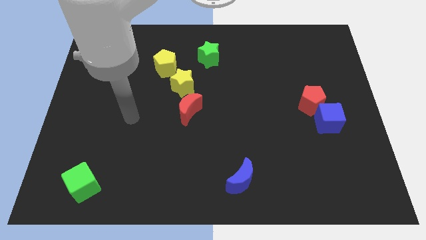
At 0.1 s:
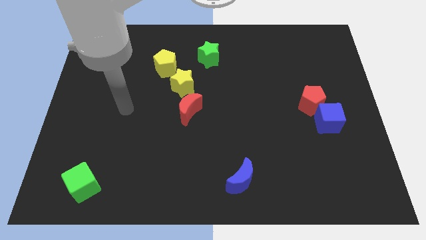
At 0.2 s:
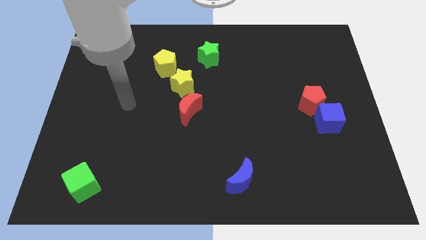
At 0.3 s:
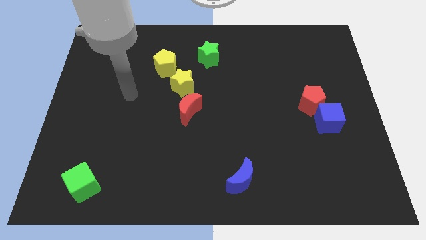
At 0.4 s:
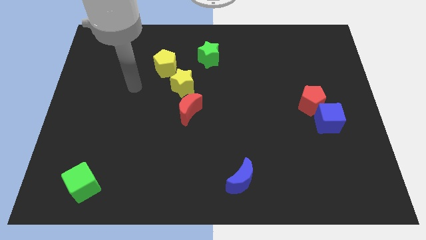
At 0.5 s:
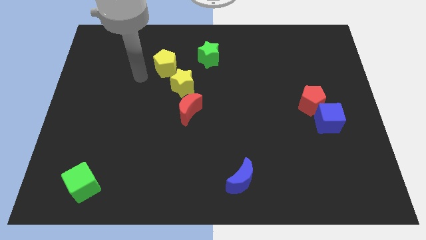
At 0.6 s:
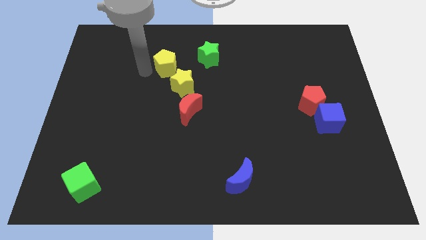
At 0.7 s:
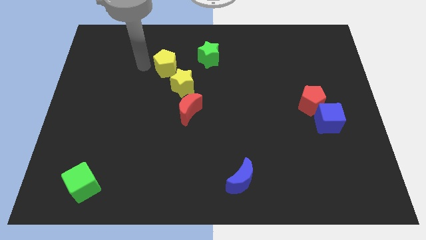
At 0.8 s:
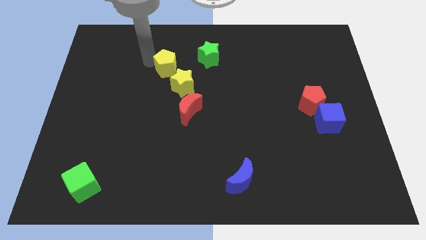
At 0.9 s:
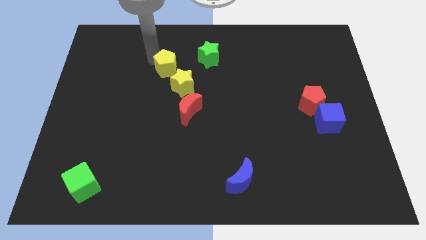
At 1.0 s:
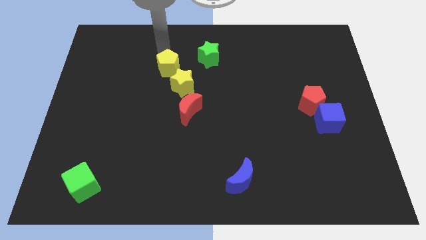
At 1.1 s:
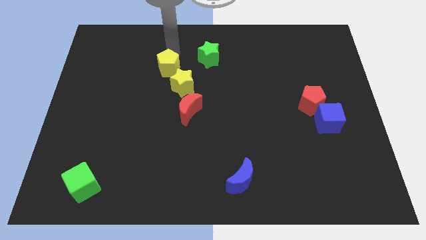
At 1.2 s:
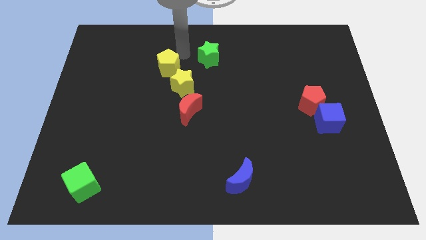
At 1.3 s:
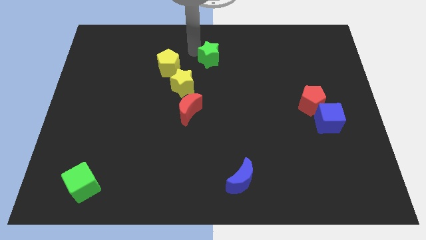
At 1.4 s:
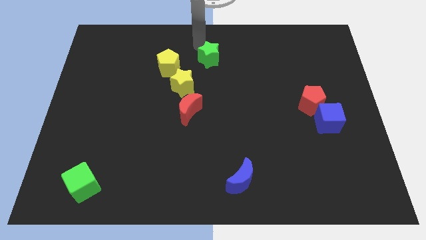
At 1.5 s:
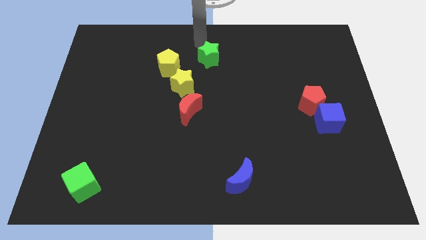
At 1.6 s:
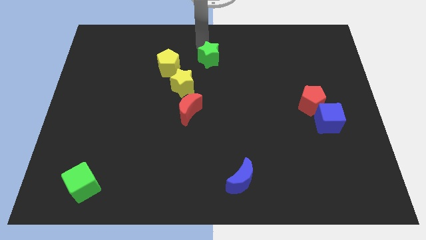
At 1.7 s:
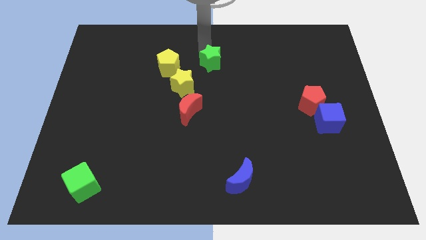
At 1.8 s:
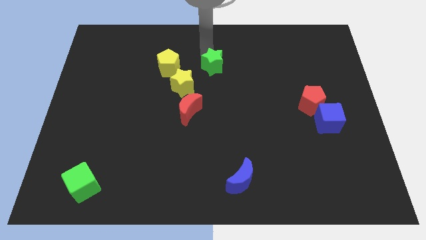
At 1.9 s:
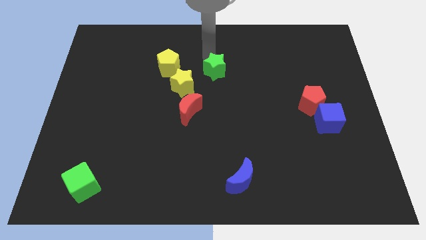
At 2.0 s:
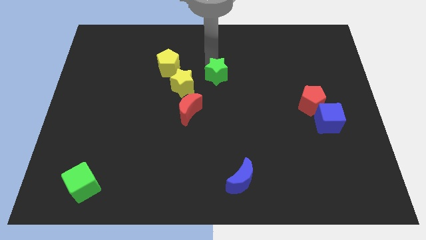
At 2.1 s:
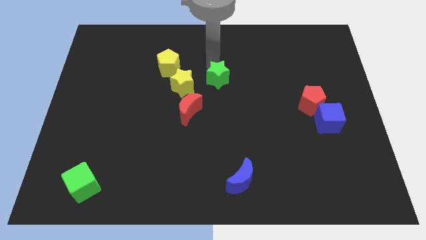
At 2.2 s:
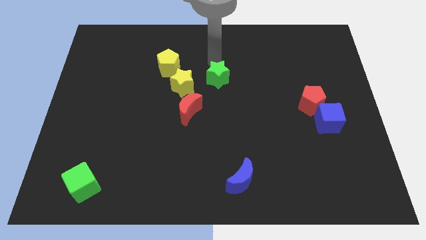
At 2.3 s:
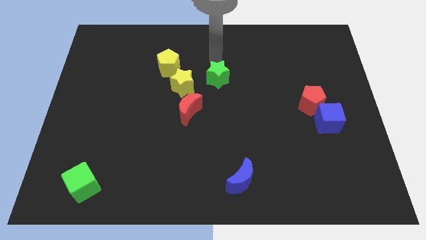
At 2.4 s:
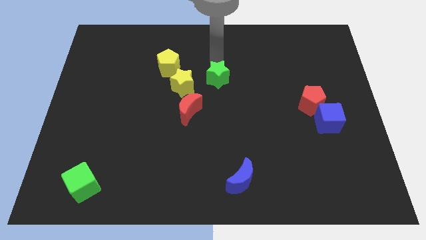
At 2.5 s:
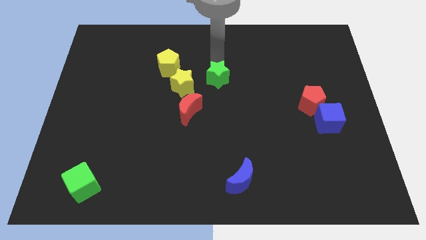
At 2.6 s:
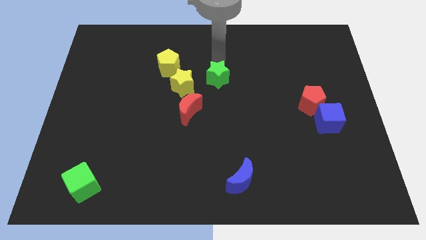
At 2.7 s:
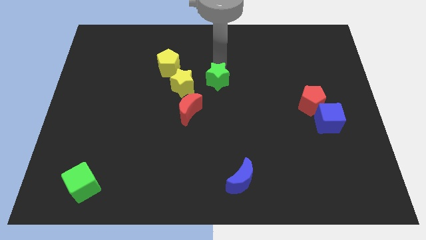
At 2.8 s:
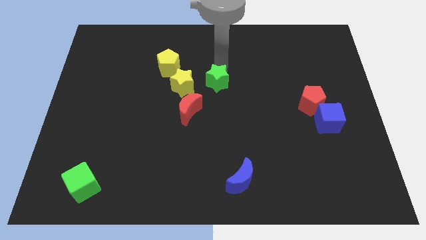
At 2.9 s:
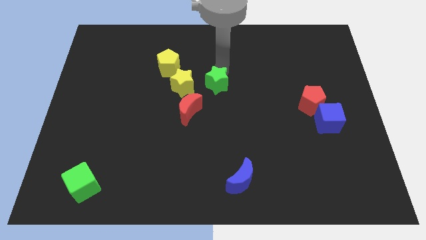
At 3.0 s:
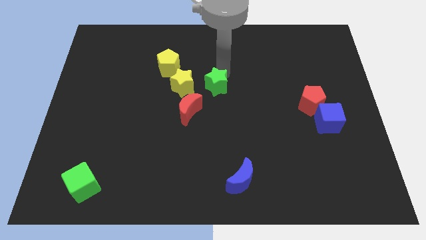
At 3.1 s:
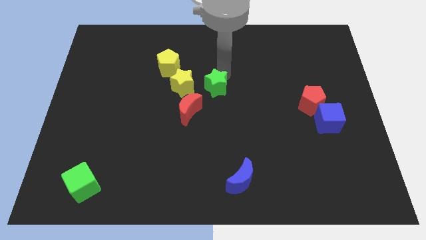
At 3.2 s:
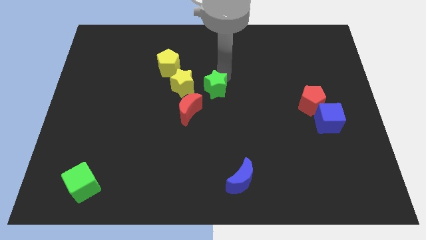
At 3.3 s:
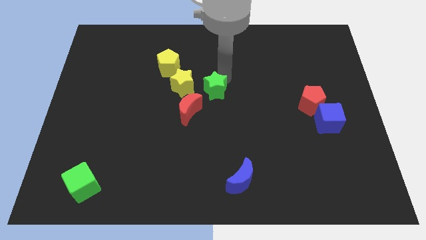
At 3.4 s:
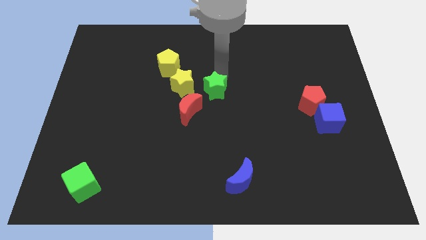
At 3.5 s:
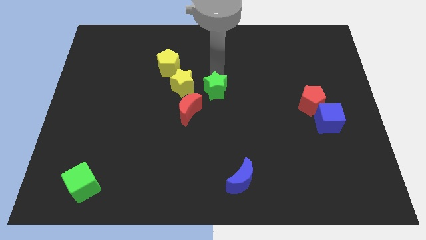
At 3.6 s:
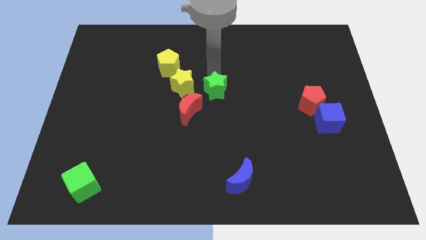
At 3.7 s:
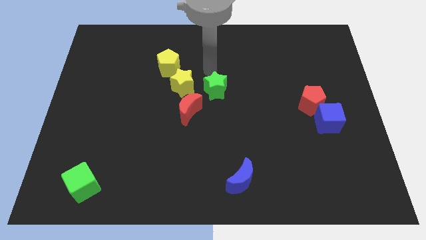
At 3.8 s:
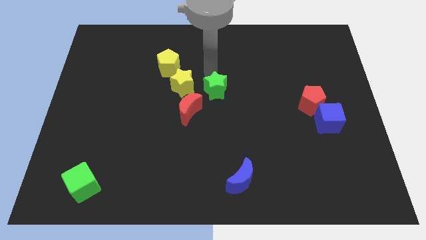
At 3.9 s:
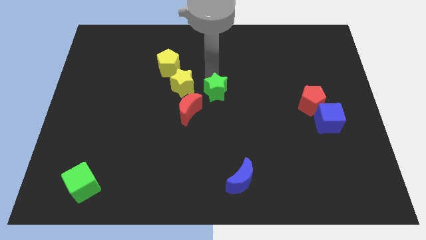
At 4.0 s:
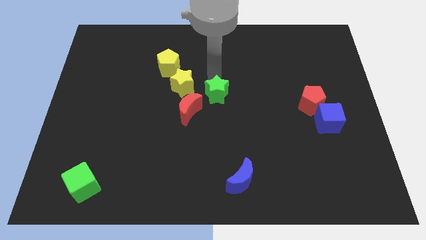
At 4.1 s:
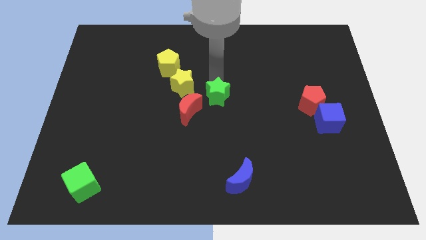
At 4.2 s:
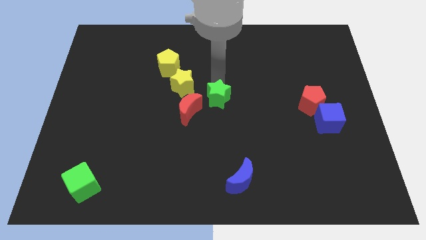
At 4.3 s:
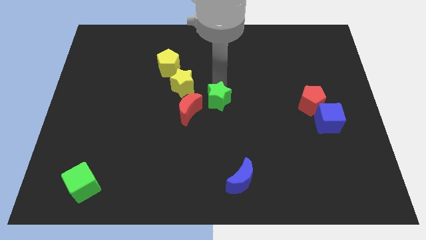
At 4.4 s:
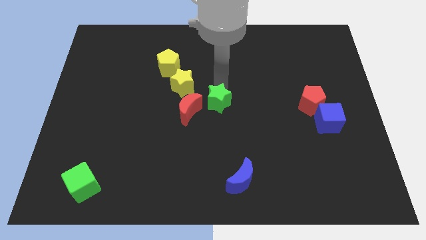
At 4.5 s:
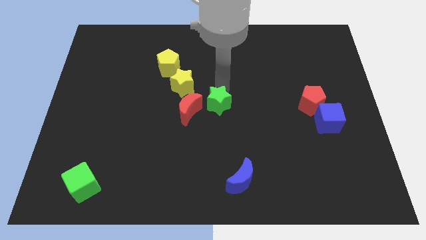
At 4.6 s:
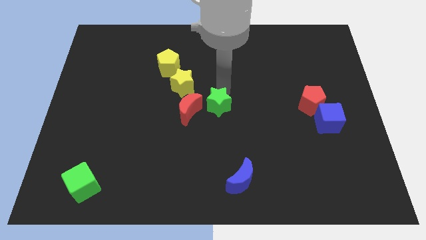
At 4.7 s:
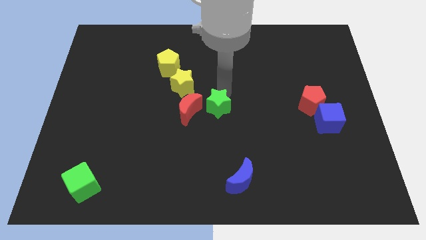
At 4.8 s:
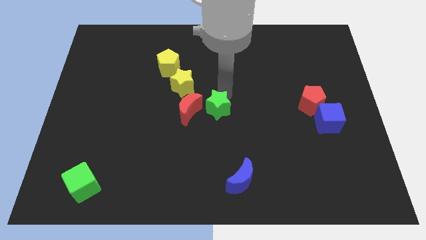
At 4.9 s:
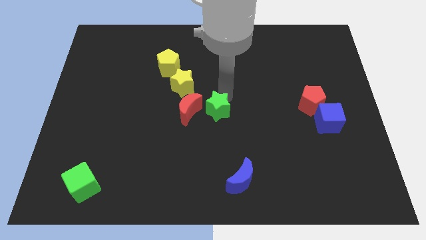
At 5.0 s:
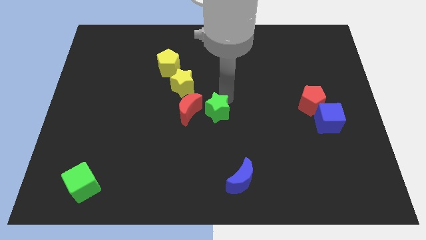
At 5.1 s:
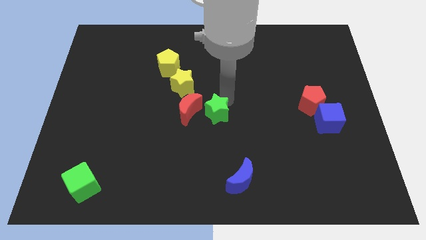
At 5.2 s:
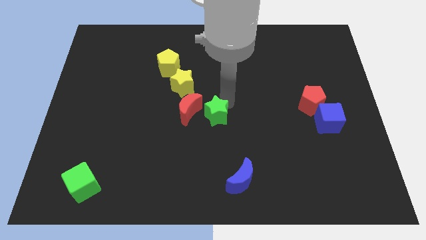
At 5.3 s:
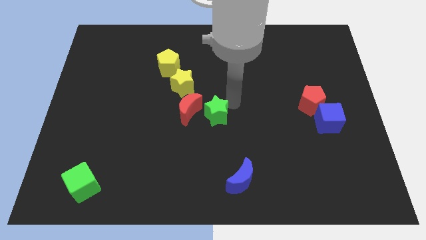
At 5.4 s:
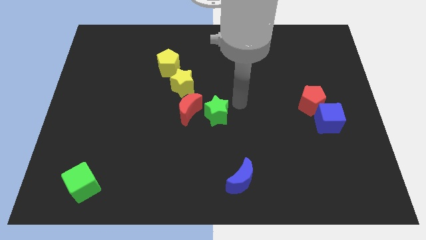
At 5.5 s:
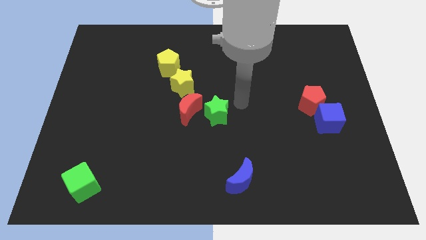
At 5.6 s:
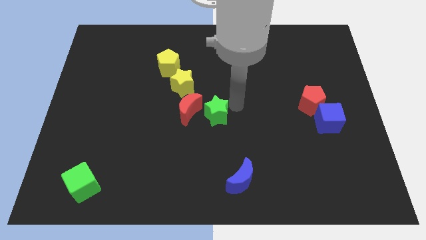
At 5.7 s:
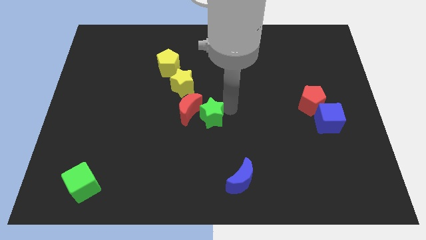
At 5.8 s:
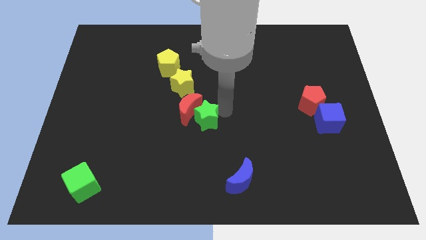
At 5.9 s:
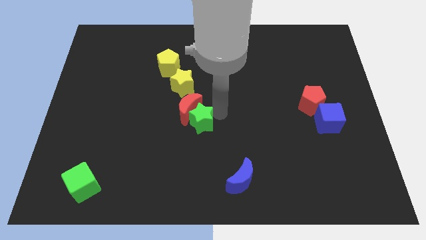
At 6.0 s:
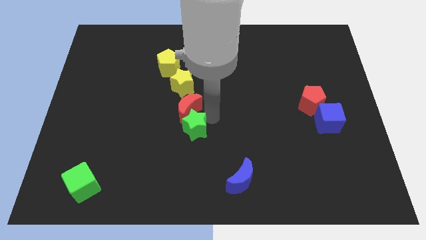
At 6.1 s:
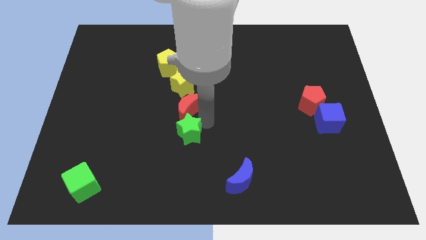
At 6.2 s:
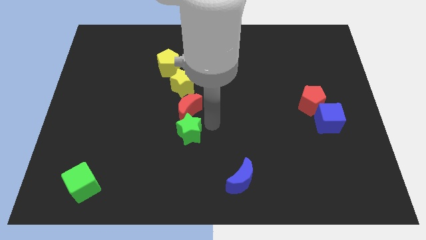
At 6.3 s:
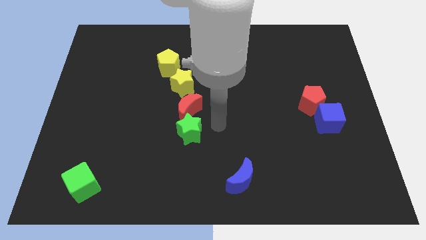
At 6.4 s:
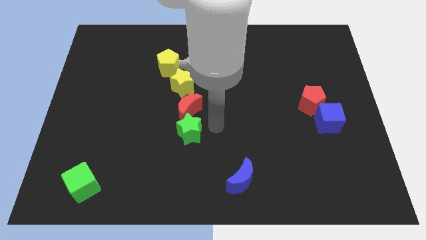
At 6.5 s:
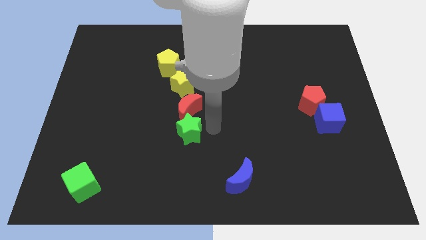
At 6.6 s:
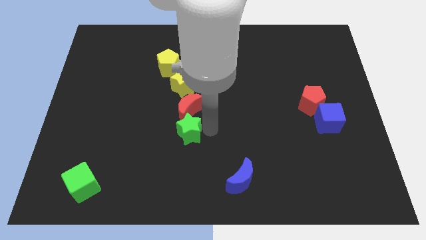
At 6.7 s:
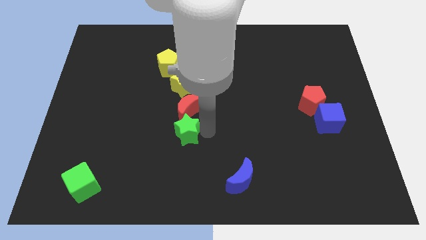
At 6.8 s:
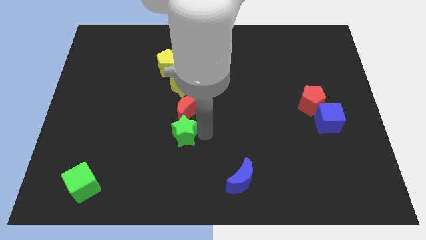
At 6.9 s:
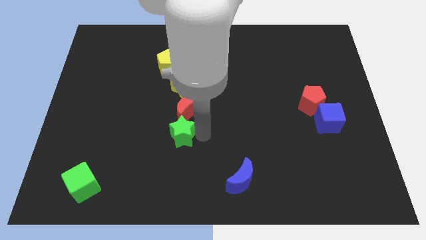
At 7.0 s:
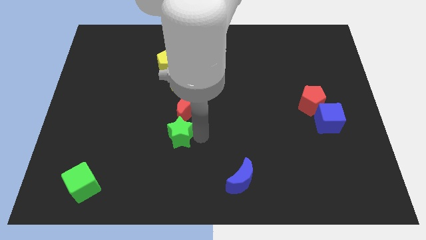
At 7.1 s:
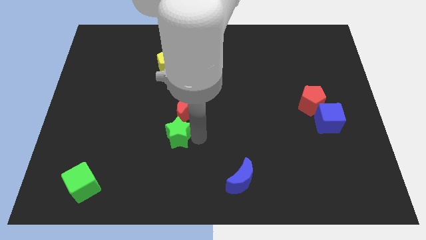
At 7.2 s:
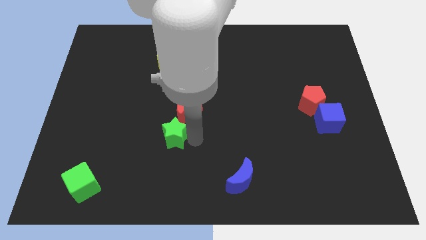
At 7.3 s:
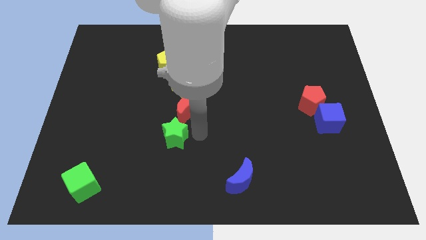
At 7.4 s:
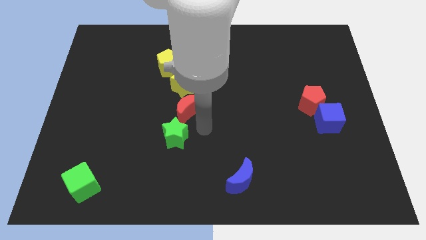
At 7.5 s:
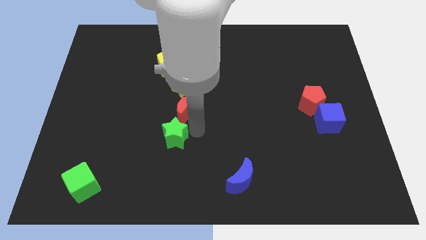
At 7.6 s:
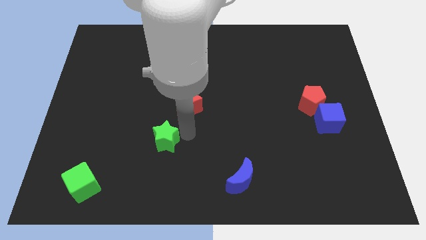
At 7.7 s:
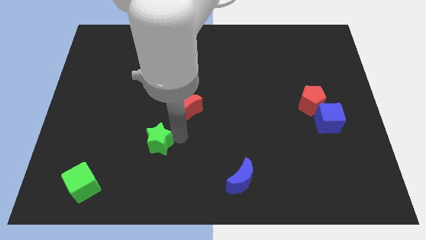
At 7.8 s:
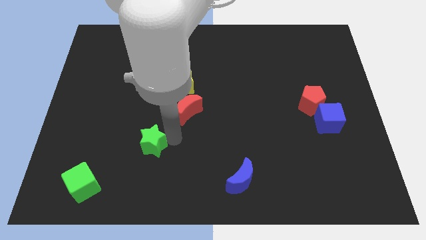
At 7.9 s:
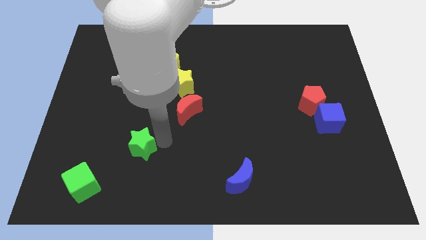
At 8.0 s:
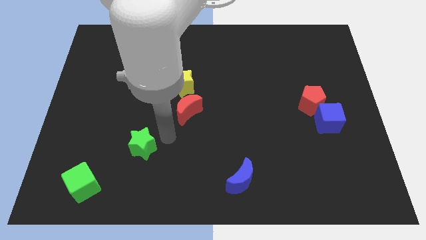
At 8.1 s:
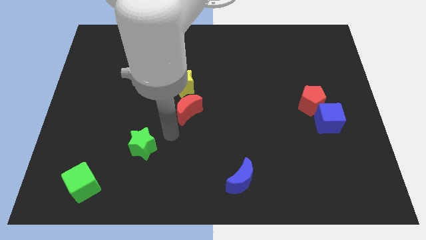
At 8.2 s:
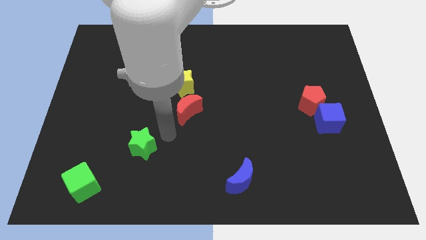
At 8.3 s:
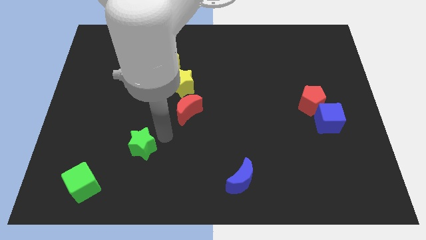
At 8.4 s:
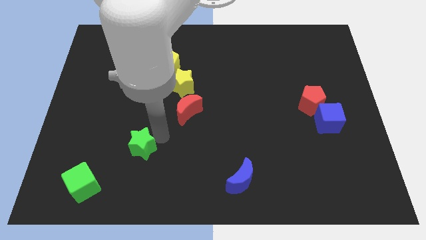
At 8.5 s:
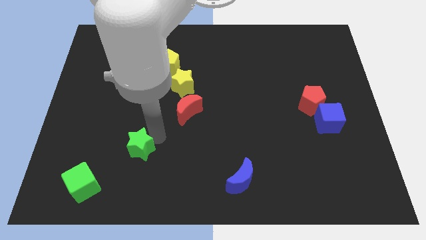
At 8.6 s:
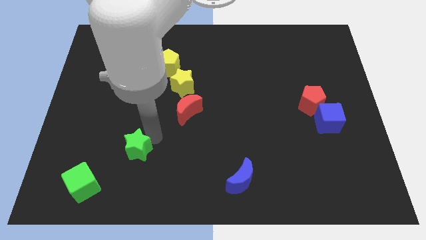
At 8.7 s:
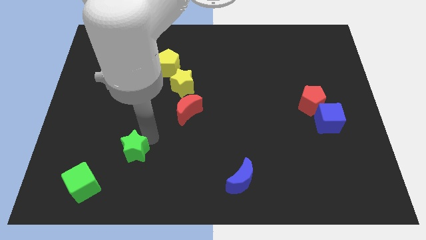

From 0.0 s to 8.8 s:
slide the green star to the top right side of the green cube
